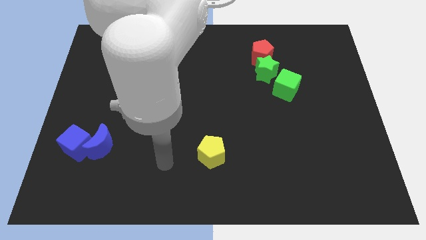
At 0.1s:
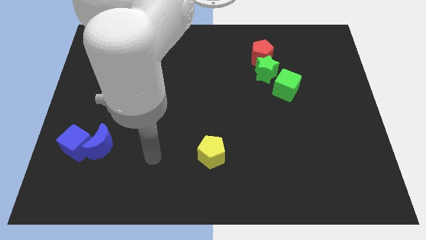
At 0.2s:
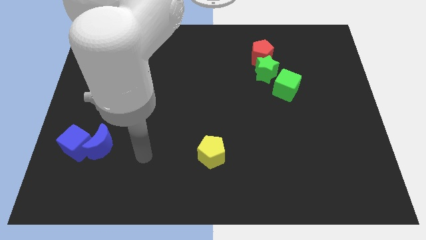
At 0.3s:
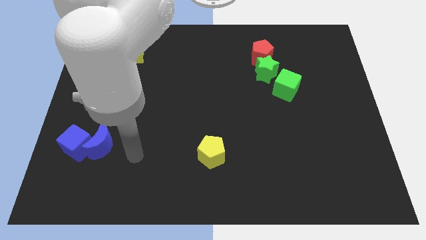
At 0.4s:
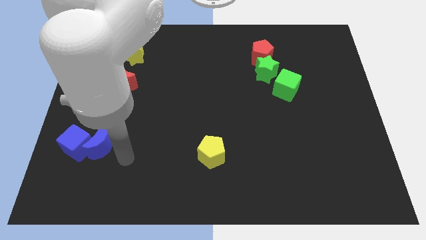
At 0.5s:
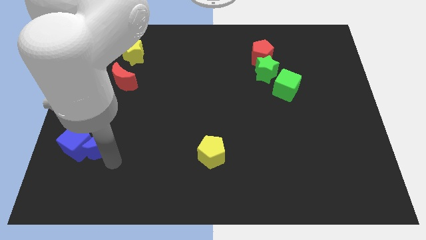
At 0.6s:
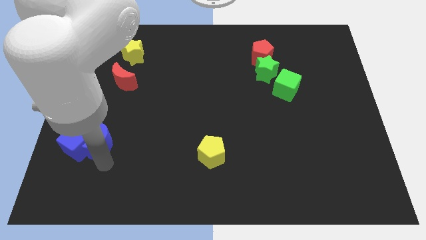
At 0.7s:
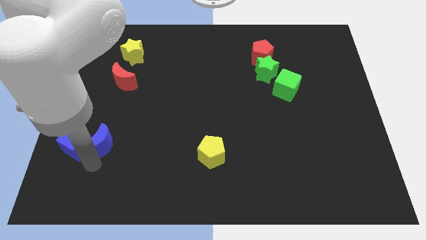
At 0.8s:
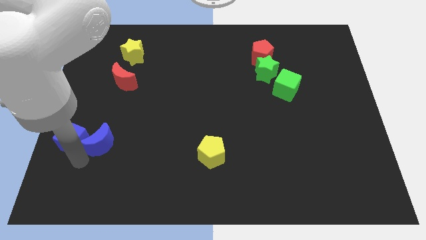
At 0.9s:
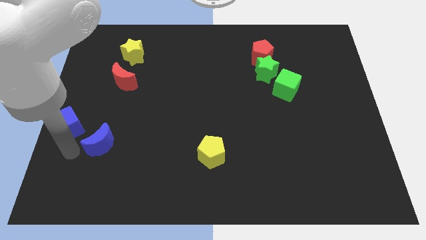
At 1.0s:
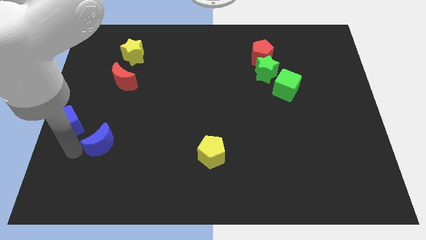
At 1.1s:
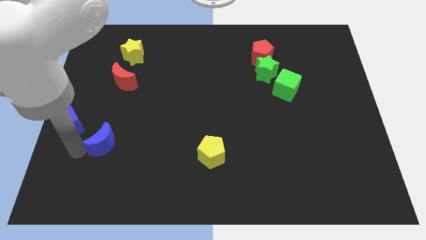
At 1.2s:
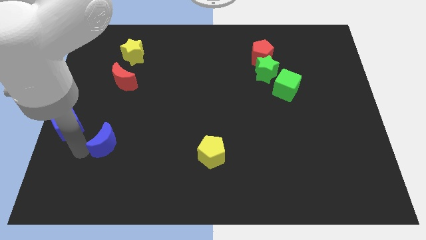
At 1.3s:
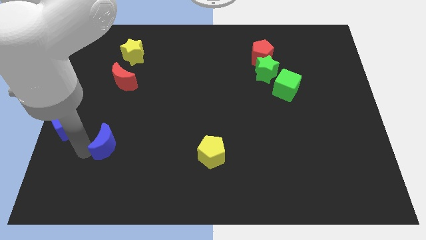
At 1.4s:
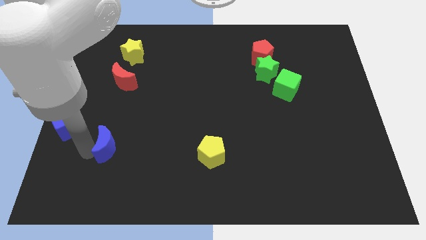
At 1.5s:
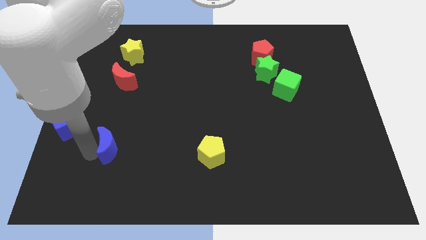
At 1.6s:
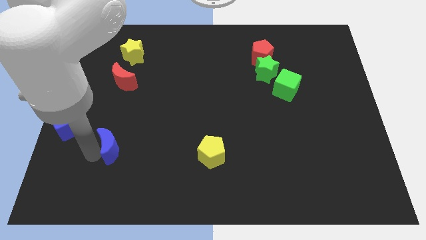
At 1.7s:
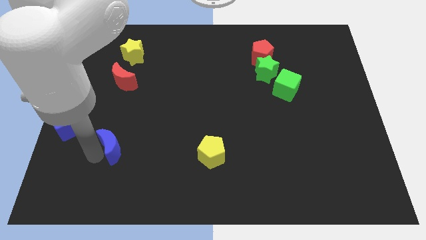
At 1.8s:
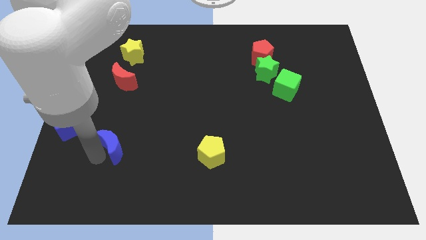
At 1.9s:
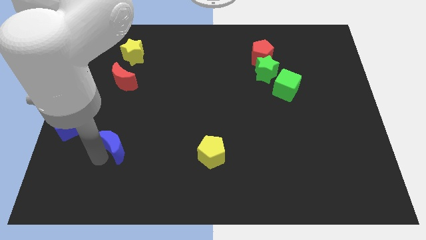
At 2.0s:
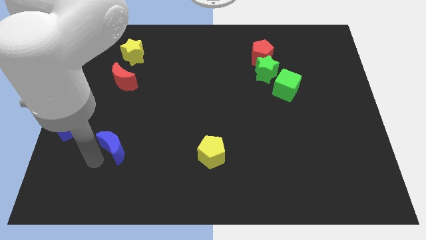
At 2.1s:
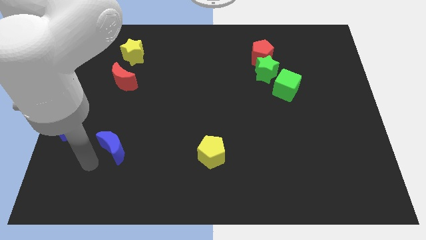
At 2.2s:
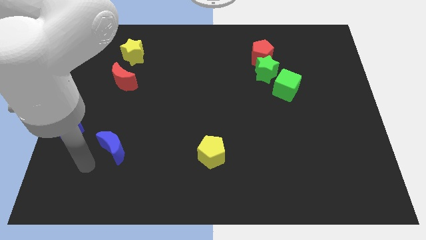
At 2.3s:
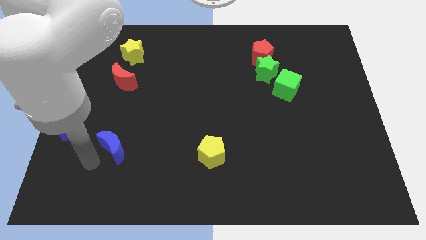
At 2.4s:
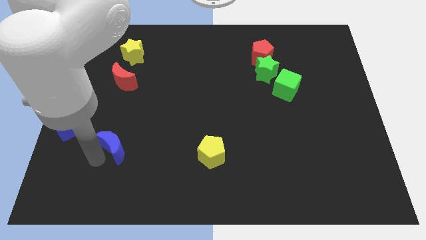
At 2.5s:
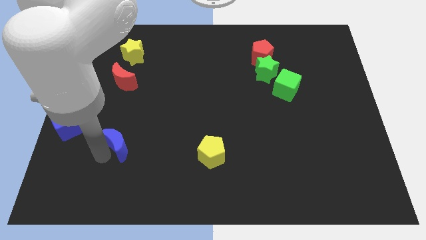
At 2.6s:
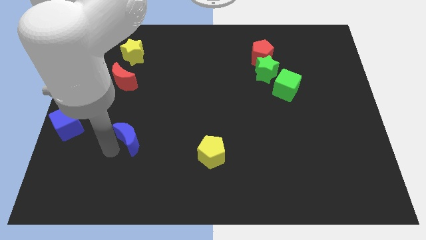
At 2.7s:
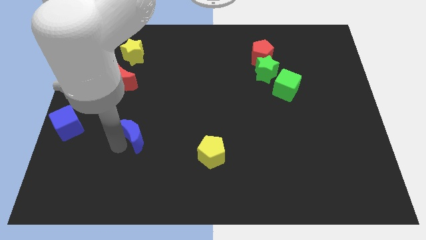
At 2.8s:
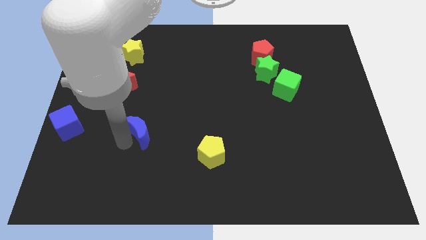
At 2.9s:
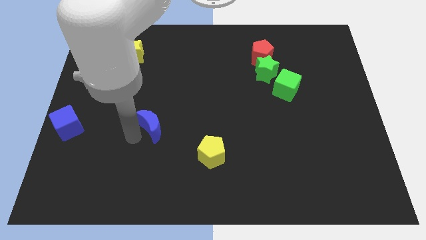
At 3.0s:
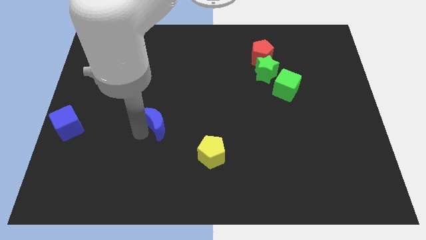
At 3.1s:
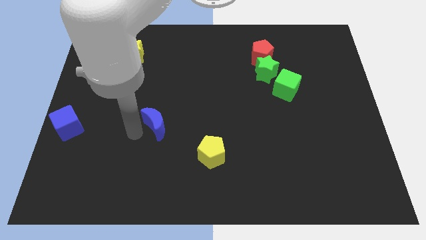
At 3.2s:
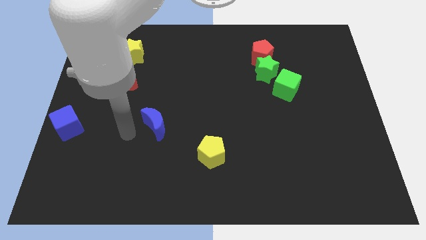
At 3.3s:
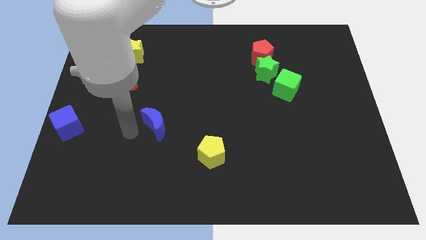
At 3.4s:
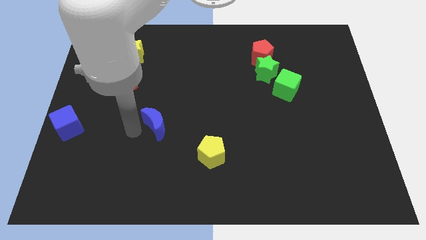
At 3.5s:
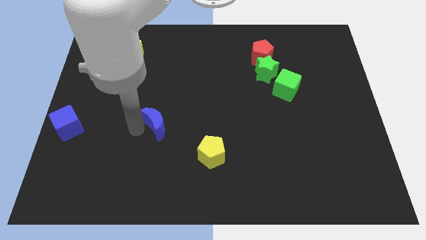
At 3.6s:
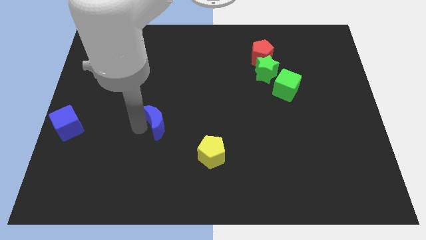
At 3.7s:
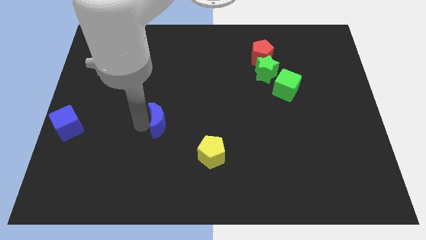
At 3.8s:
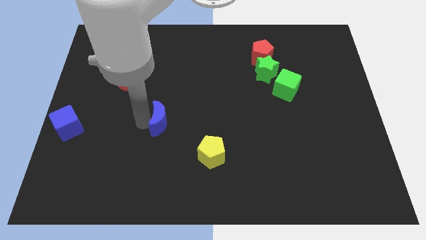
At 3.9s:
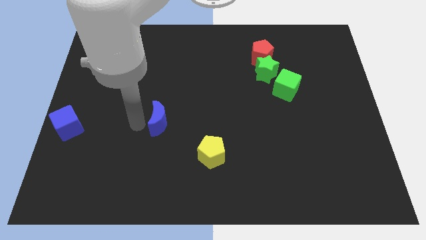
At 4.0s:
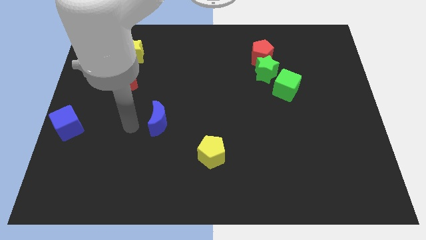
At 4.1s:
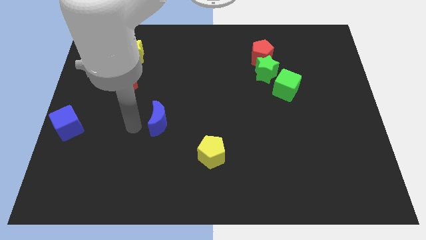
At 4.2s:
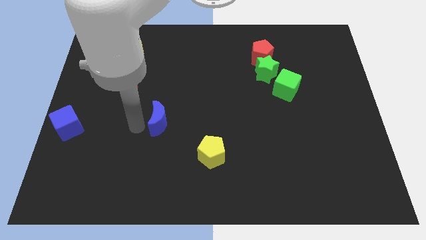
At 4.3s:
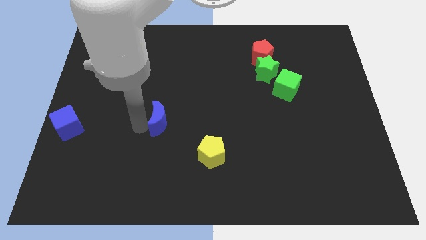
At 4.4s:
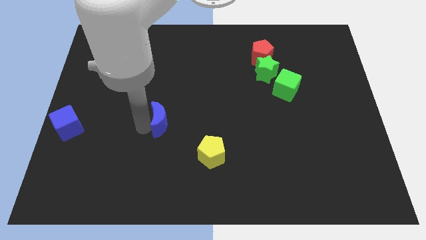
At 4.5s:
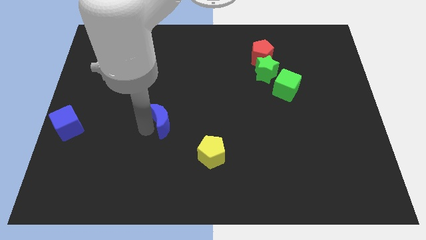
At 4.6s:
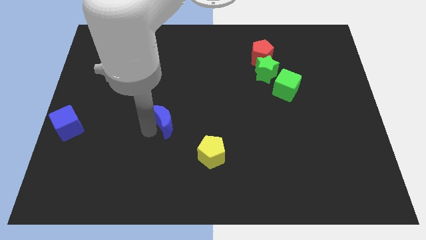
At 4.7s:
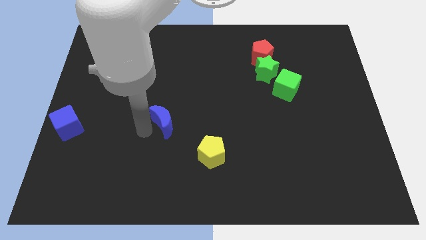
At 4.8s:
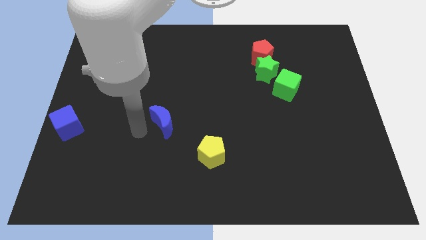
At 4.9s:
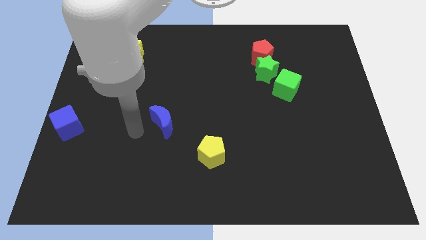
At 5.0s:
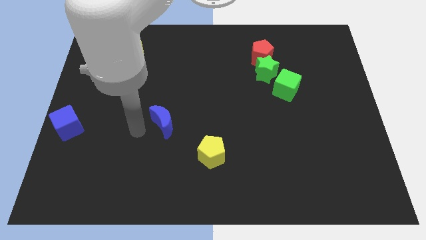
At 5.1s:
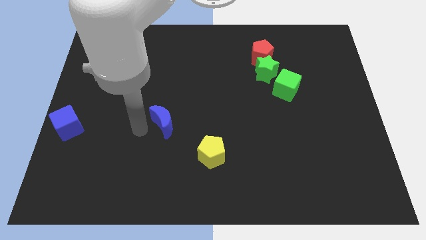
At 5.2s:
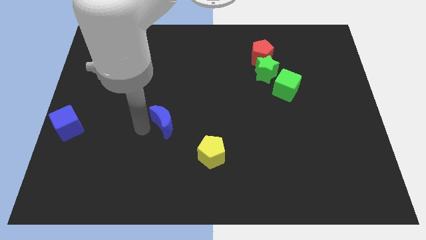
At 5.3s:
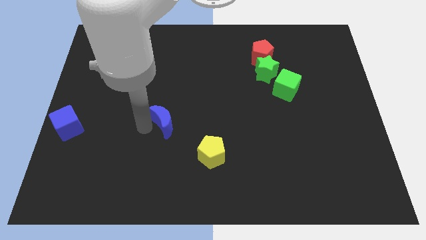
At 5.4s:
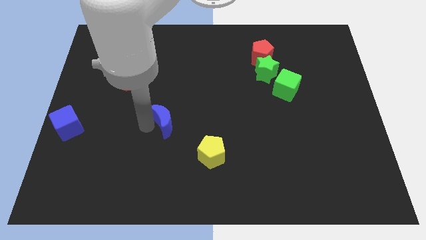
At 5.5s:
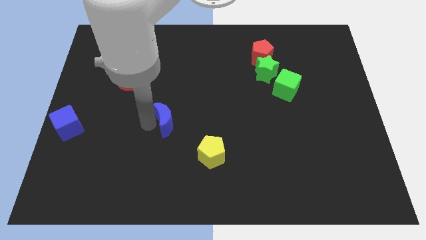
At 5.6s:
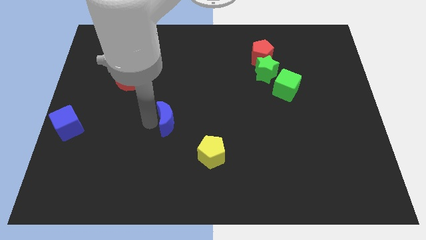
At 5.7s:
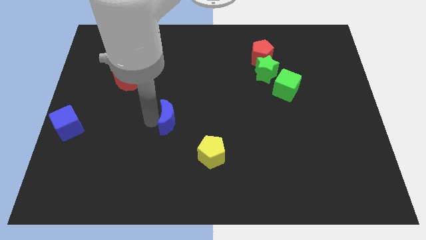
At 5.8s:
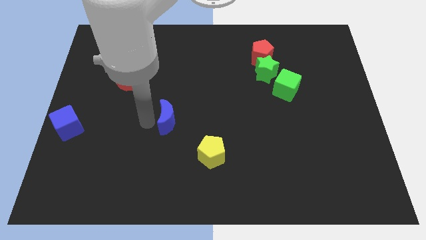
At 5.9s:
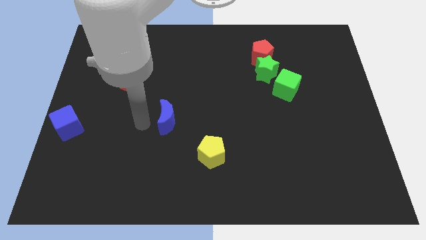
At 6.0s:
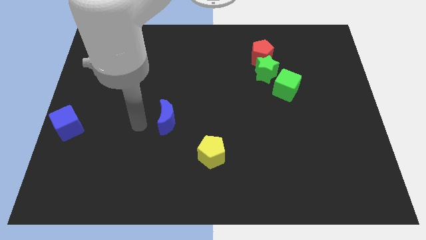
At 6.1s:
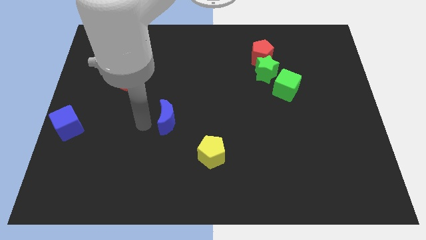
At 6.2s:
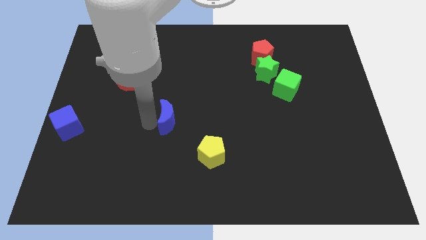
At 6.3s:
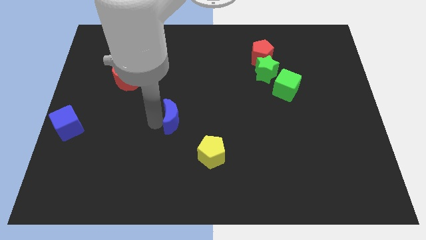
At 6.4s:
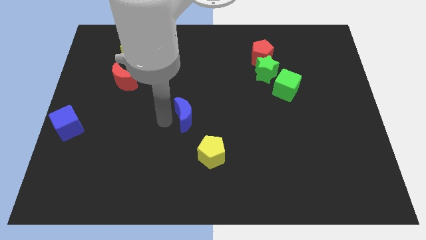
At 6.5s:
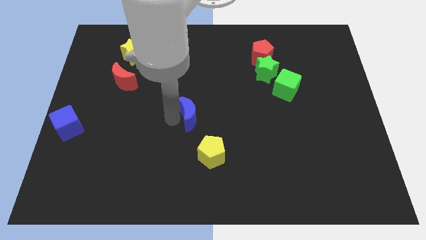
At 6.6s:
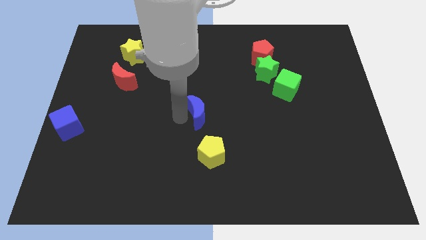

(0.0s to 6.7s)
push the blue moon to the top of the yellow pentagon

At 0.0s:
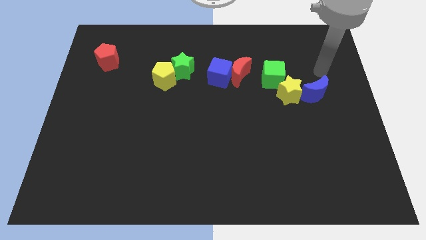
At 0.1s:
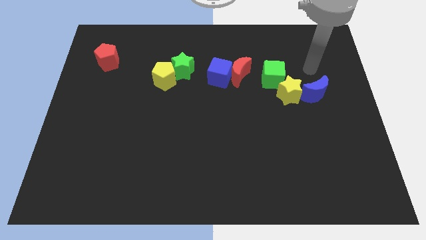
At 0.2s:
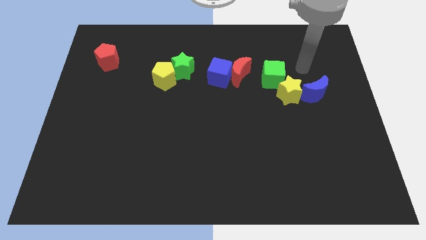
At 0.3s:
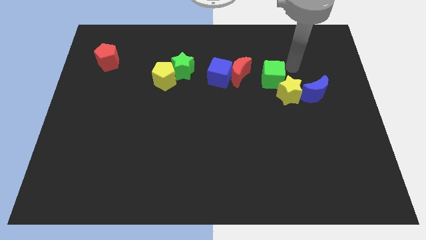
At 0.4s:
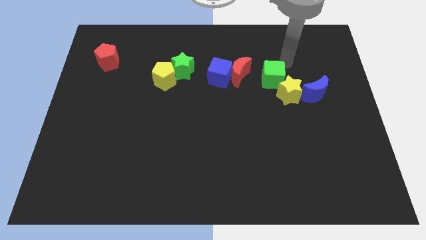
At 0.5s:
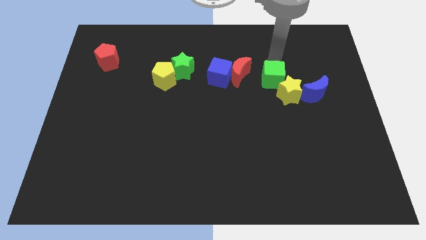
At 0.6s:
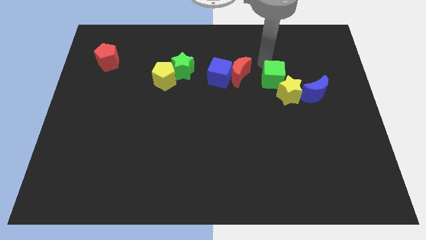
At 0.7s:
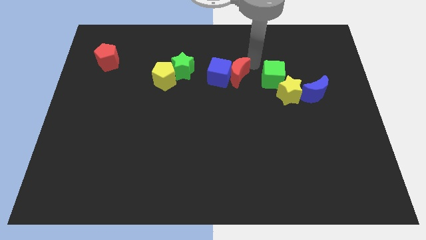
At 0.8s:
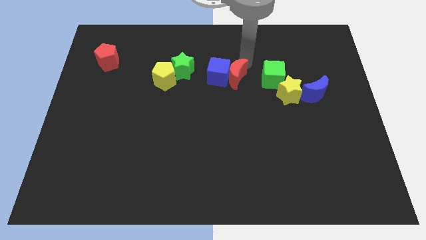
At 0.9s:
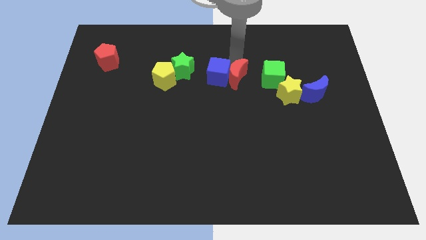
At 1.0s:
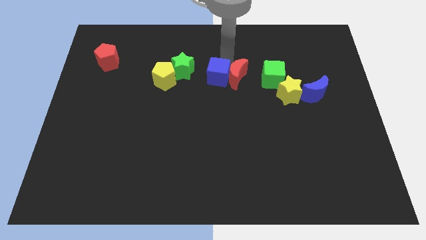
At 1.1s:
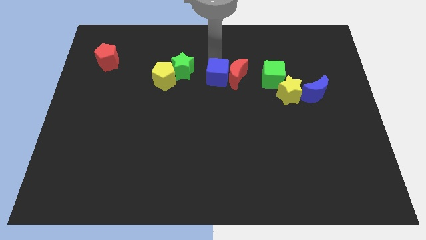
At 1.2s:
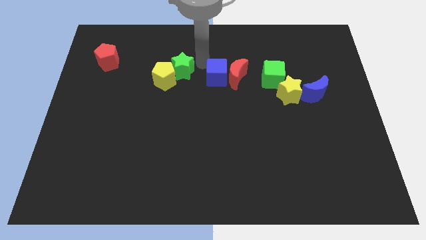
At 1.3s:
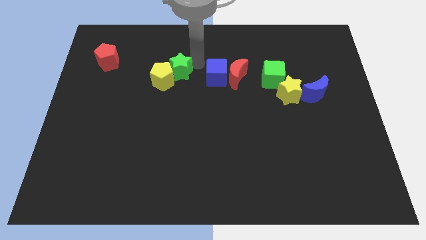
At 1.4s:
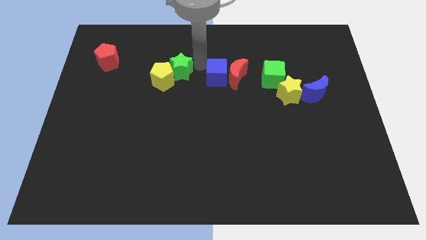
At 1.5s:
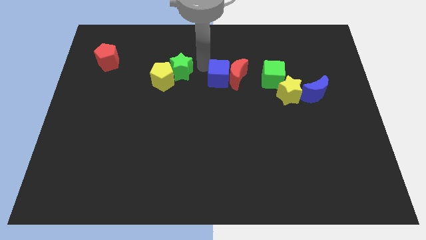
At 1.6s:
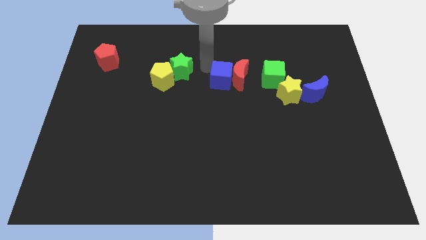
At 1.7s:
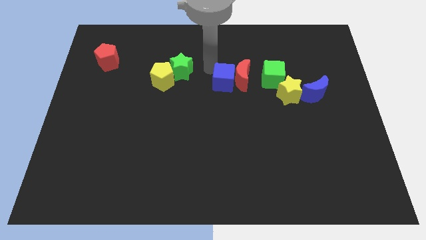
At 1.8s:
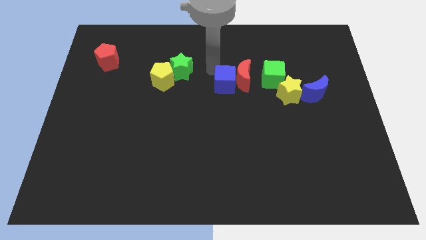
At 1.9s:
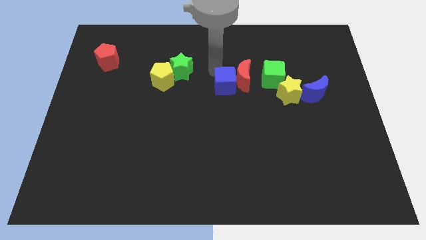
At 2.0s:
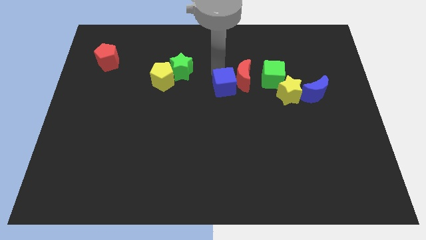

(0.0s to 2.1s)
push the blue cube to the left of the yellow star
